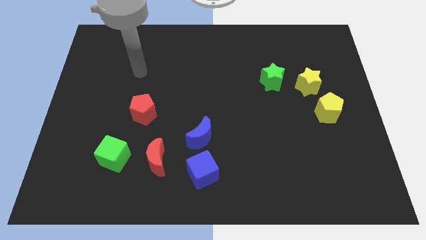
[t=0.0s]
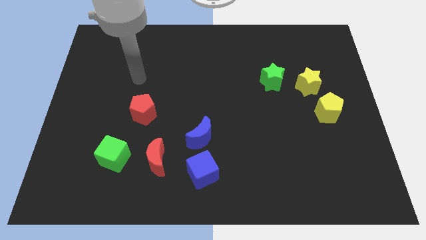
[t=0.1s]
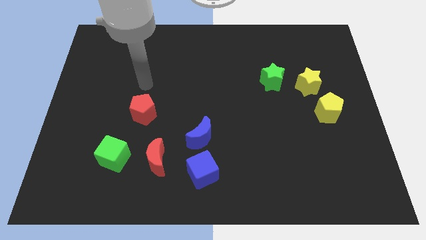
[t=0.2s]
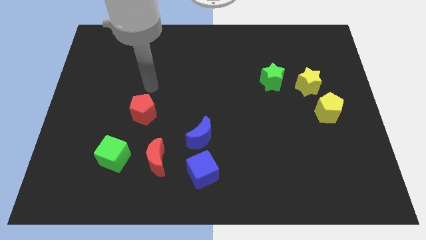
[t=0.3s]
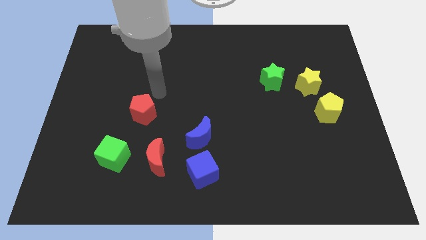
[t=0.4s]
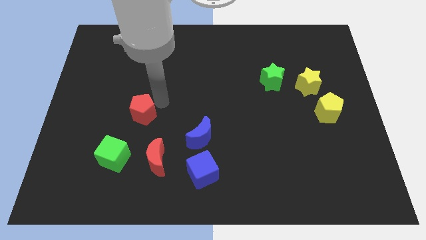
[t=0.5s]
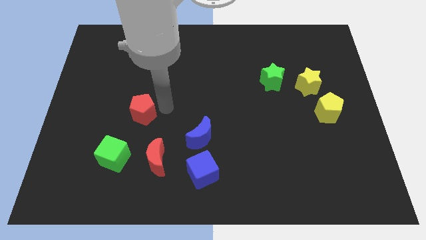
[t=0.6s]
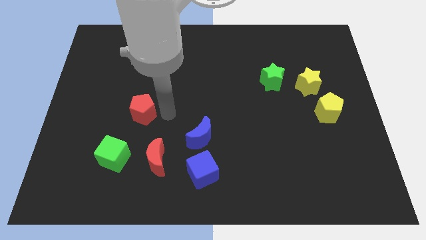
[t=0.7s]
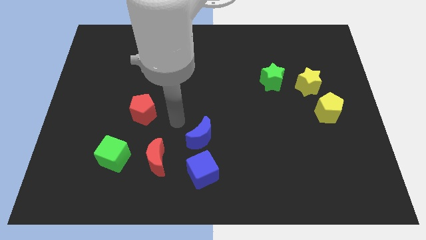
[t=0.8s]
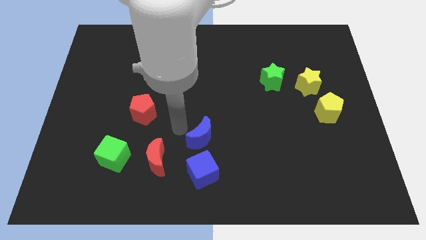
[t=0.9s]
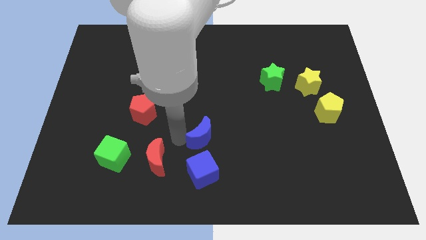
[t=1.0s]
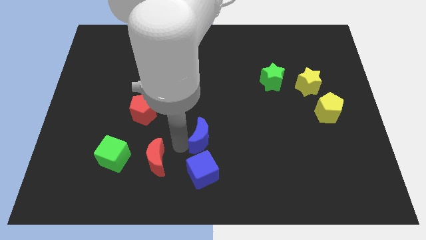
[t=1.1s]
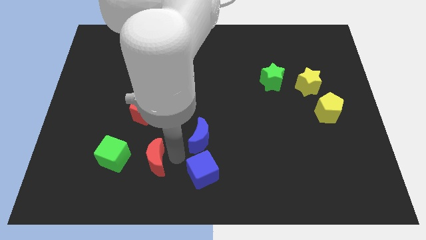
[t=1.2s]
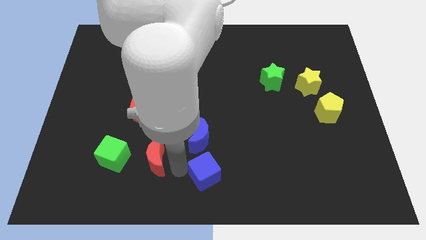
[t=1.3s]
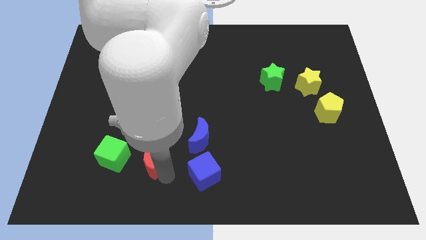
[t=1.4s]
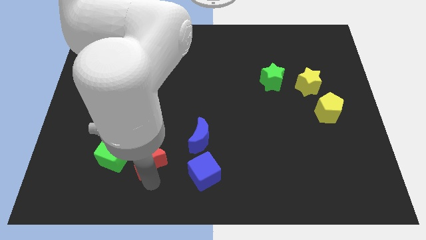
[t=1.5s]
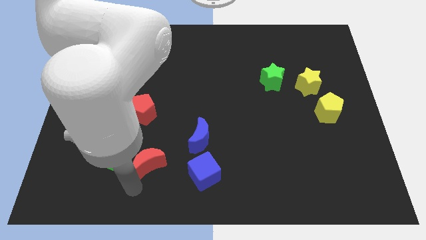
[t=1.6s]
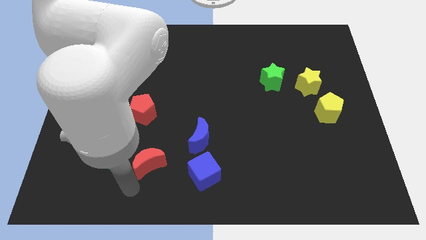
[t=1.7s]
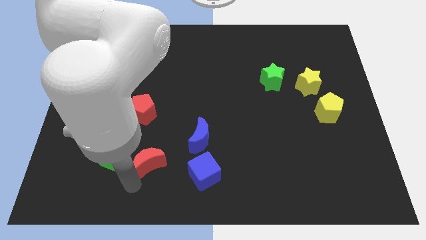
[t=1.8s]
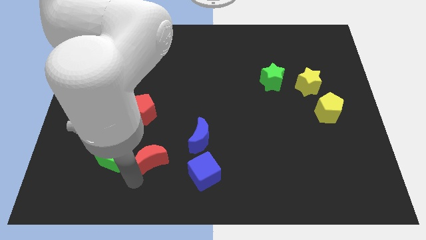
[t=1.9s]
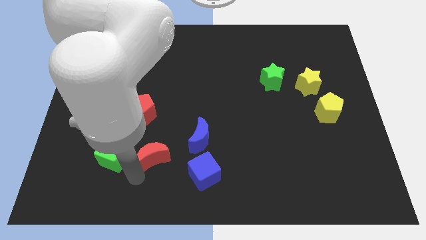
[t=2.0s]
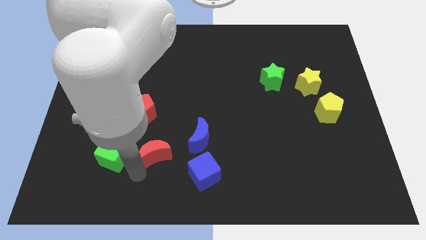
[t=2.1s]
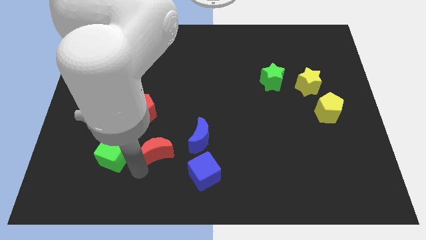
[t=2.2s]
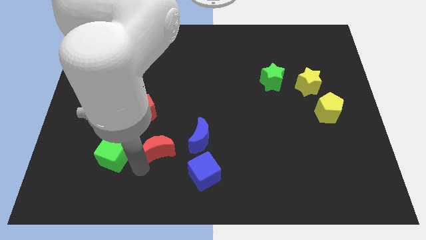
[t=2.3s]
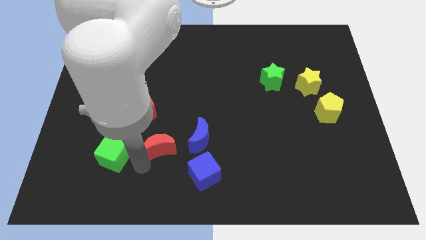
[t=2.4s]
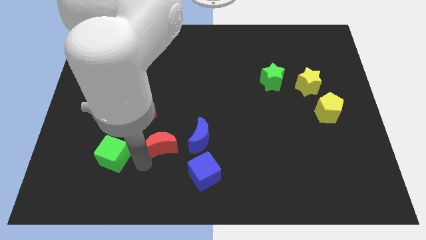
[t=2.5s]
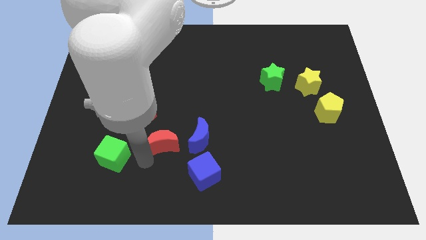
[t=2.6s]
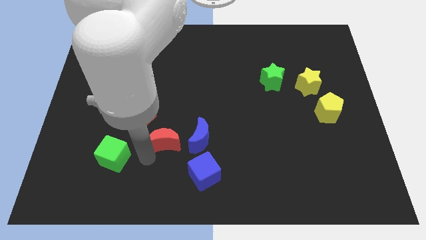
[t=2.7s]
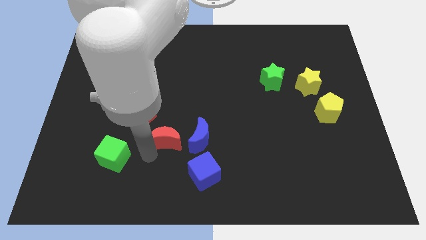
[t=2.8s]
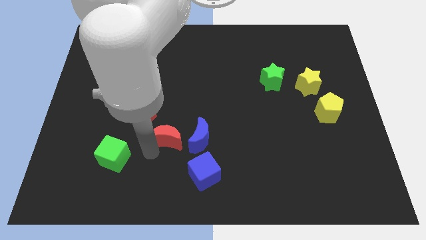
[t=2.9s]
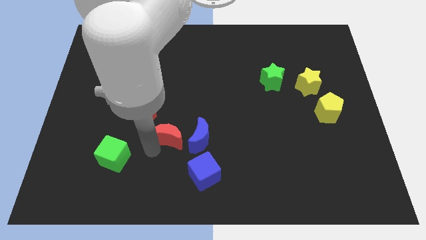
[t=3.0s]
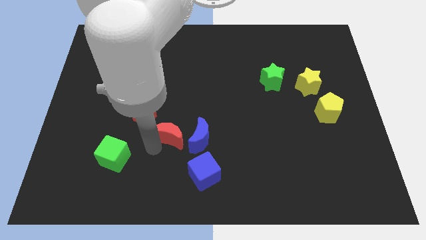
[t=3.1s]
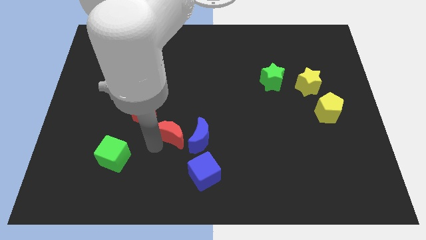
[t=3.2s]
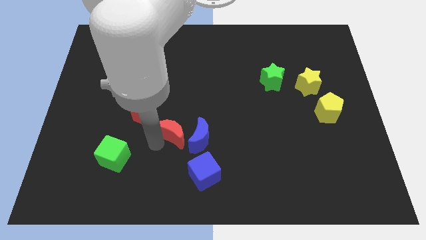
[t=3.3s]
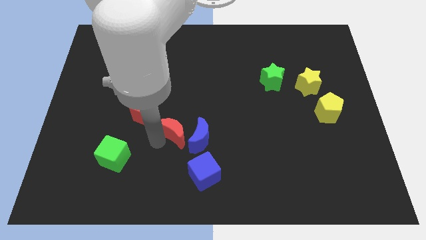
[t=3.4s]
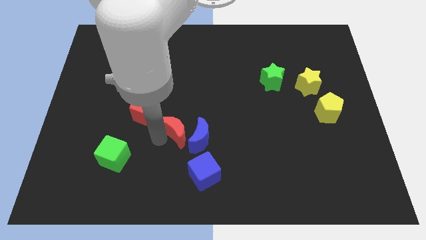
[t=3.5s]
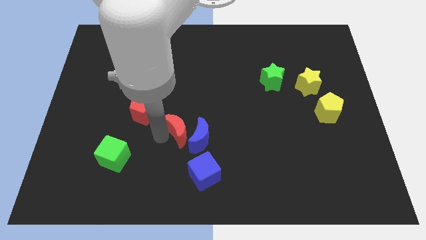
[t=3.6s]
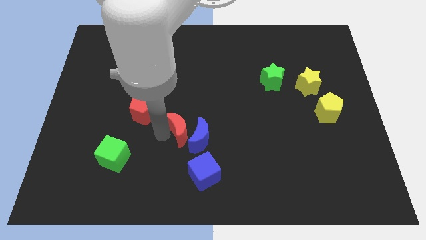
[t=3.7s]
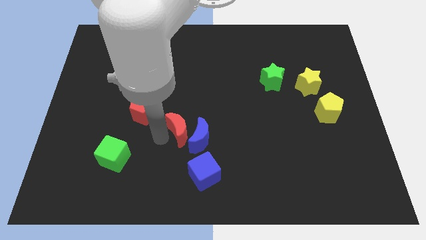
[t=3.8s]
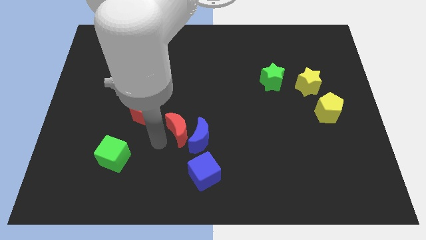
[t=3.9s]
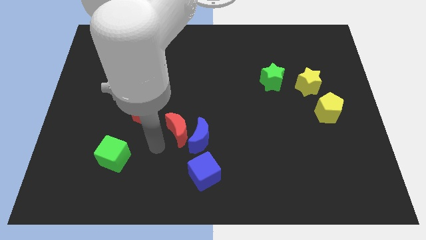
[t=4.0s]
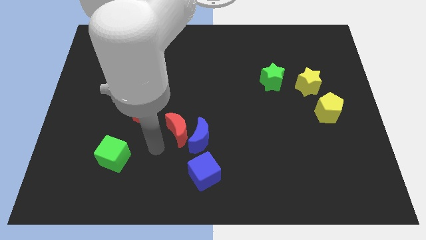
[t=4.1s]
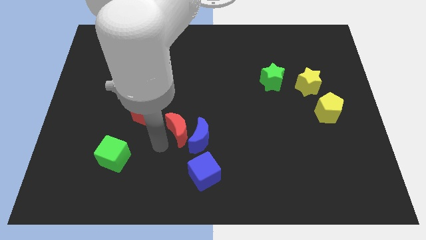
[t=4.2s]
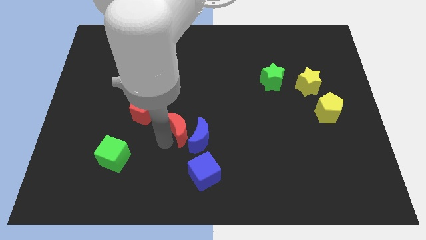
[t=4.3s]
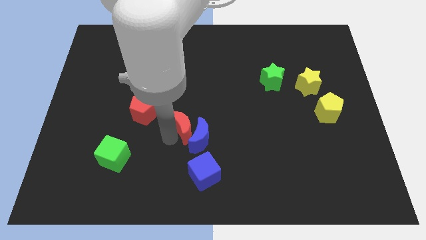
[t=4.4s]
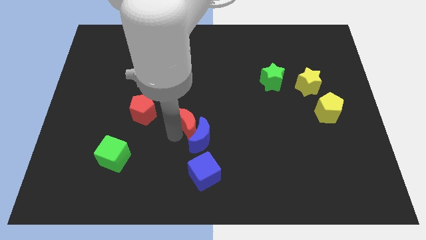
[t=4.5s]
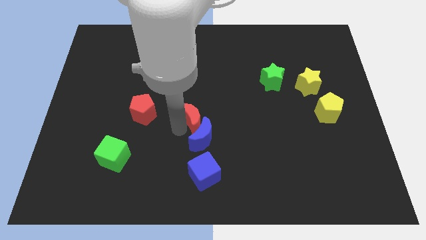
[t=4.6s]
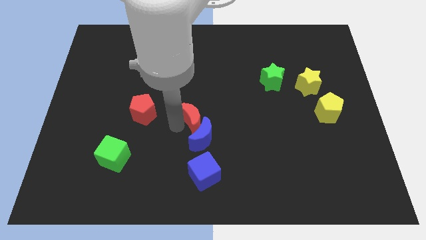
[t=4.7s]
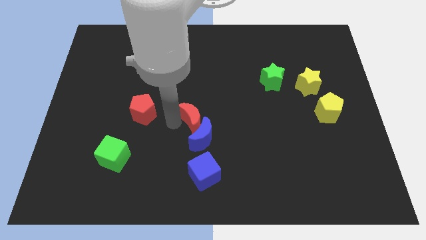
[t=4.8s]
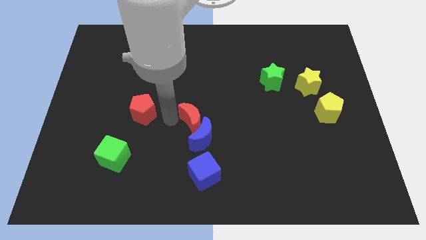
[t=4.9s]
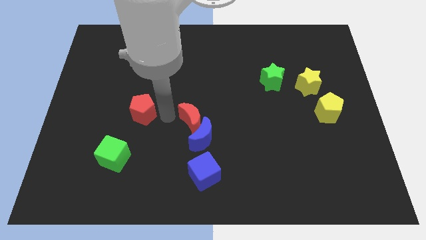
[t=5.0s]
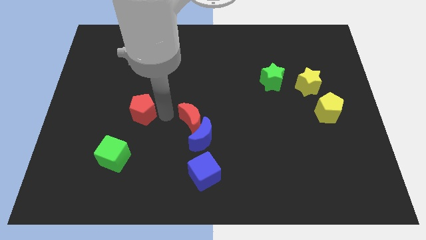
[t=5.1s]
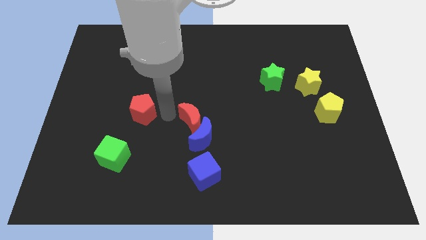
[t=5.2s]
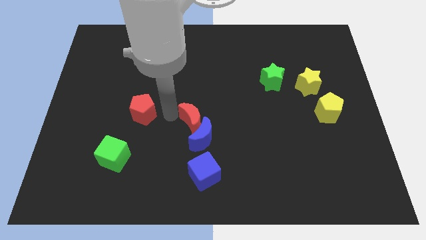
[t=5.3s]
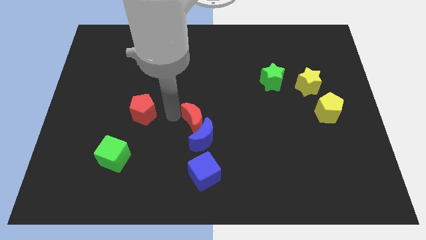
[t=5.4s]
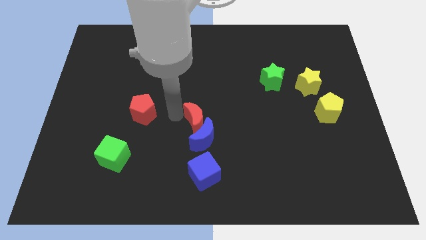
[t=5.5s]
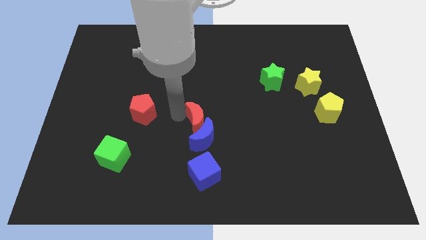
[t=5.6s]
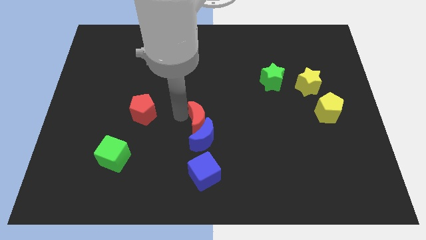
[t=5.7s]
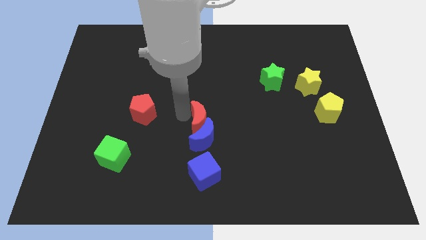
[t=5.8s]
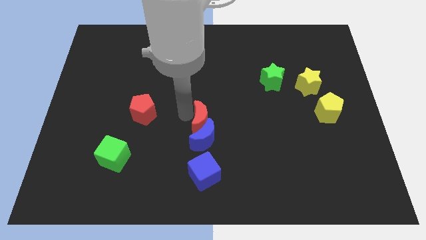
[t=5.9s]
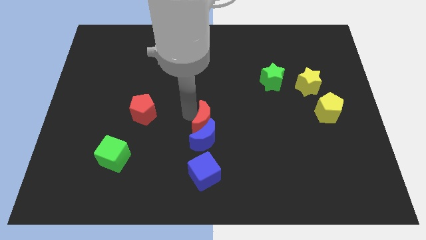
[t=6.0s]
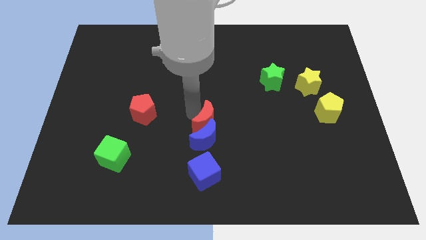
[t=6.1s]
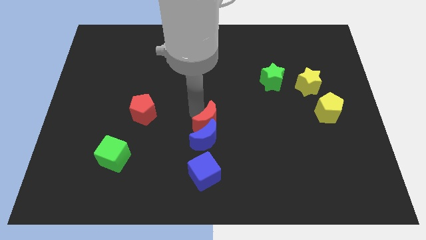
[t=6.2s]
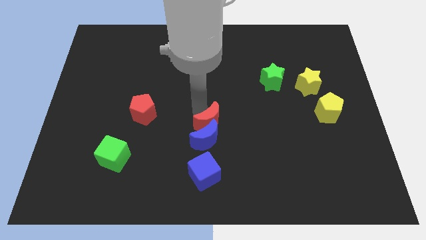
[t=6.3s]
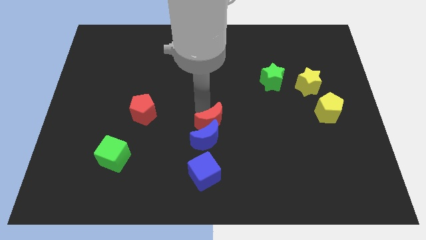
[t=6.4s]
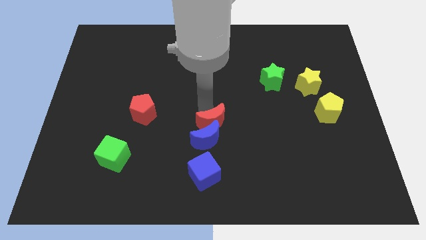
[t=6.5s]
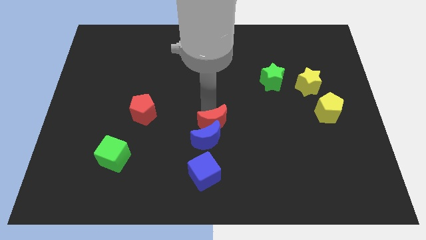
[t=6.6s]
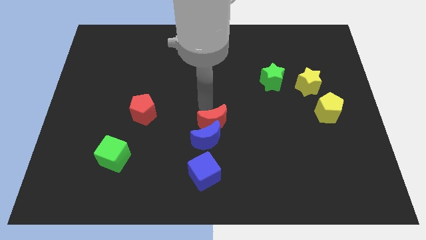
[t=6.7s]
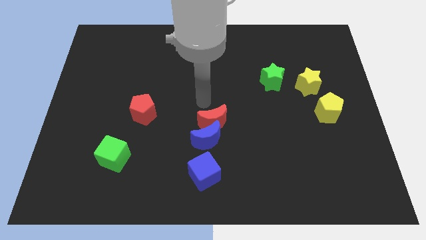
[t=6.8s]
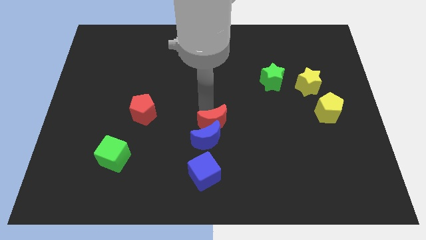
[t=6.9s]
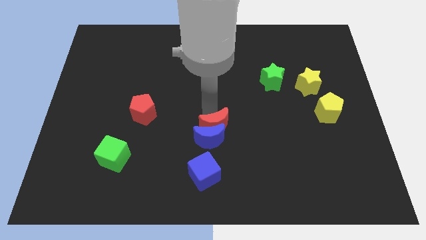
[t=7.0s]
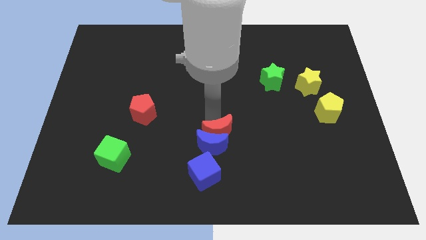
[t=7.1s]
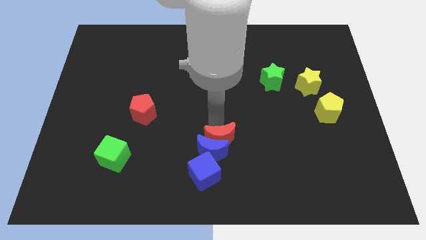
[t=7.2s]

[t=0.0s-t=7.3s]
slide the red moon to the top right side of the blue cube
